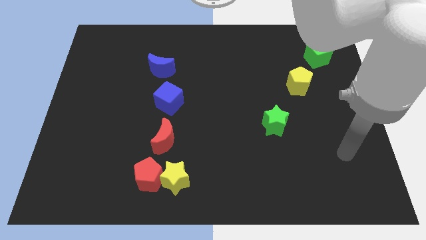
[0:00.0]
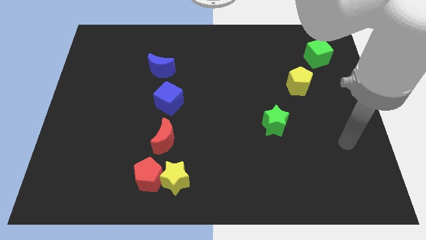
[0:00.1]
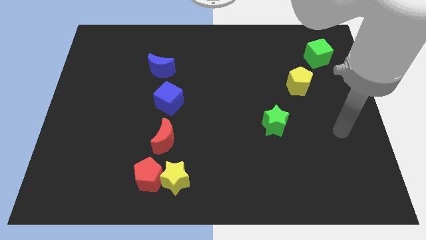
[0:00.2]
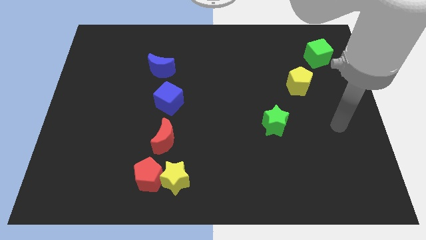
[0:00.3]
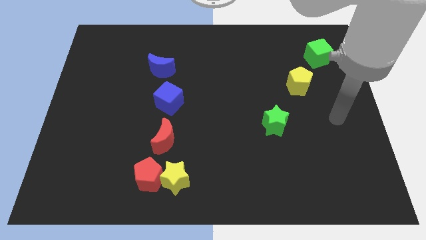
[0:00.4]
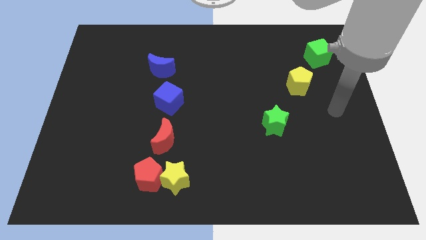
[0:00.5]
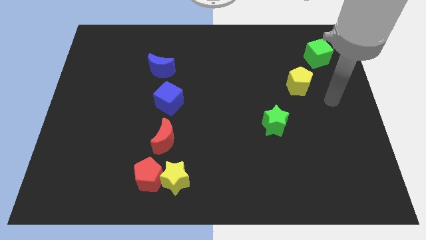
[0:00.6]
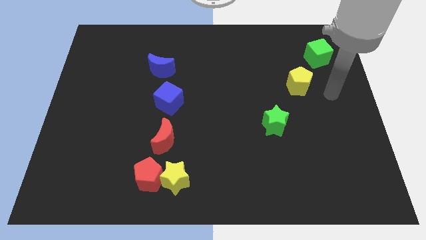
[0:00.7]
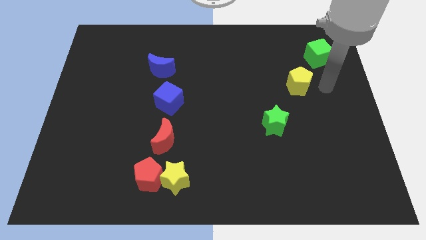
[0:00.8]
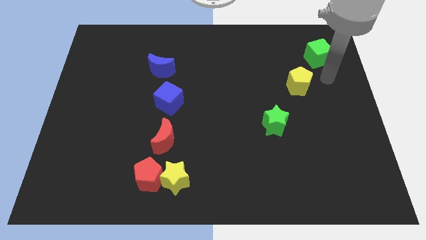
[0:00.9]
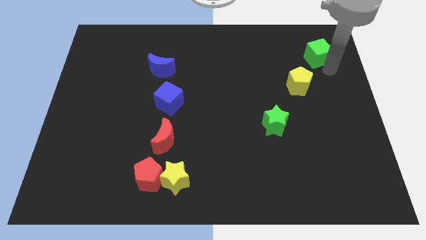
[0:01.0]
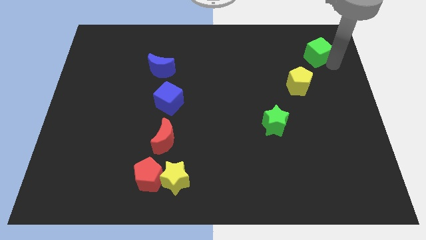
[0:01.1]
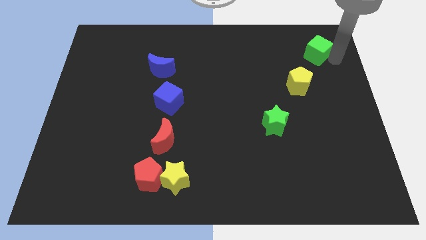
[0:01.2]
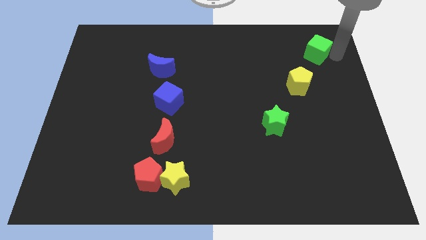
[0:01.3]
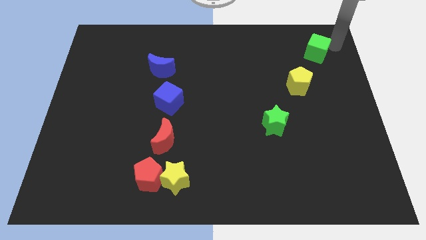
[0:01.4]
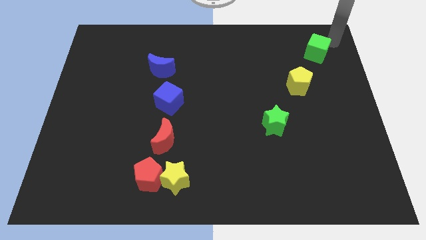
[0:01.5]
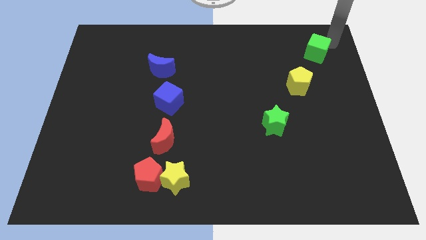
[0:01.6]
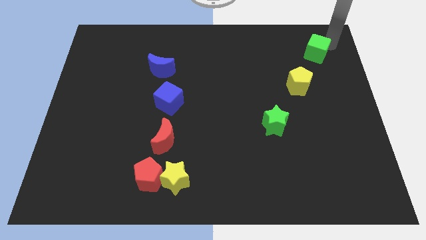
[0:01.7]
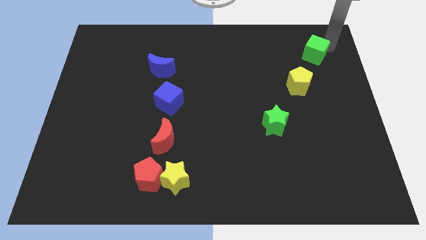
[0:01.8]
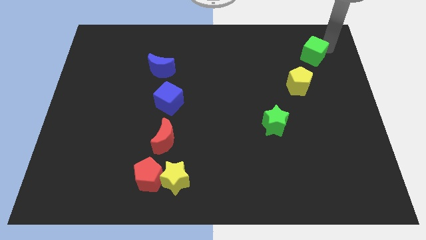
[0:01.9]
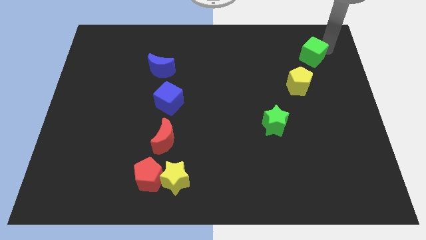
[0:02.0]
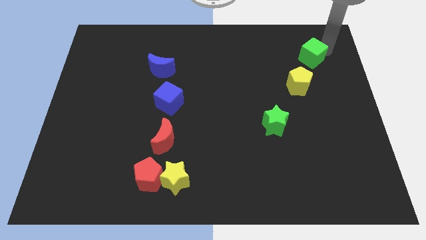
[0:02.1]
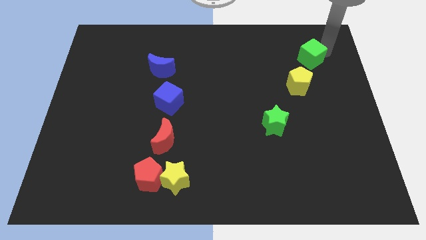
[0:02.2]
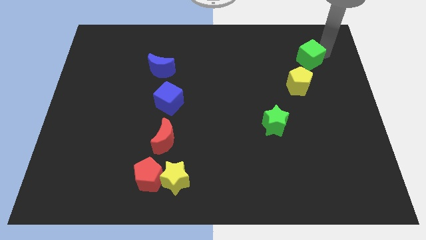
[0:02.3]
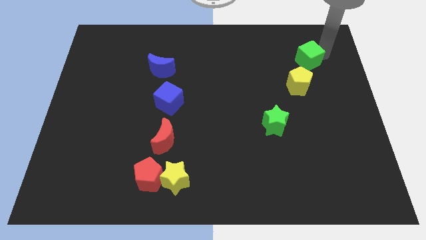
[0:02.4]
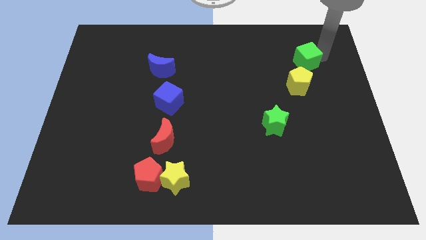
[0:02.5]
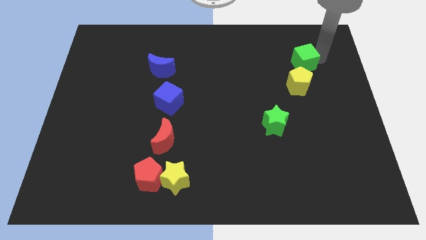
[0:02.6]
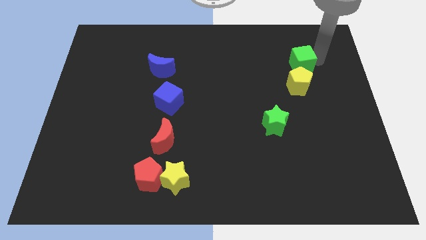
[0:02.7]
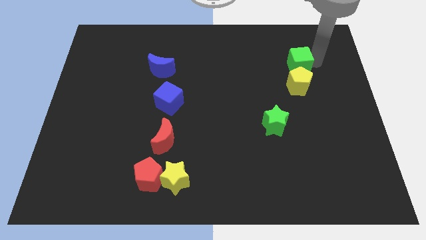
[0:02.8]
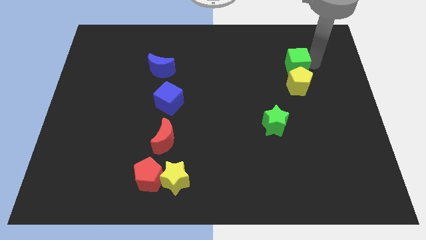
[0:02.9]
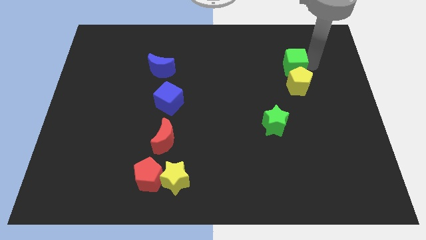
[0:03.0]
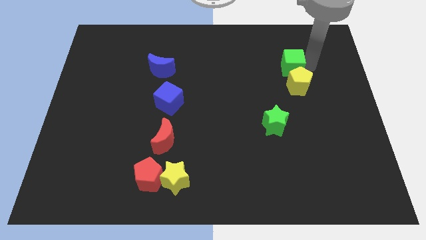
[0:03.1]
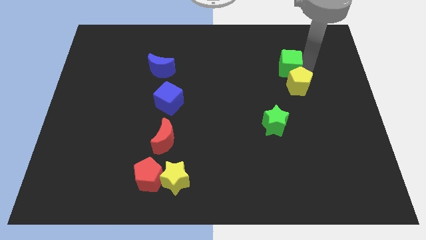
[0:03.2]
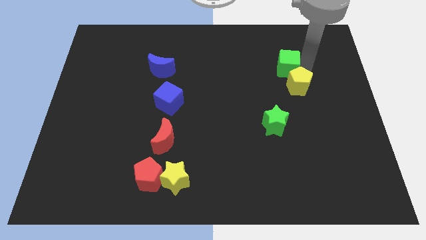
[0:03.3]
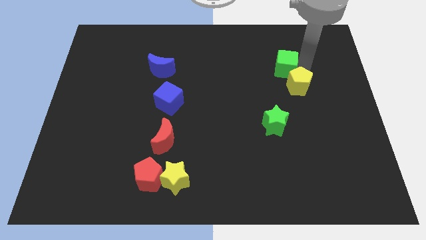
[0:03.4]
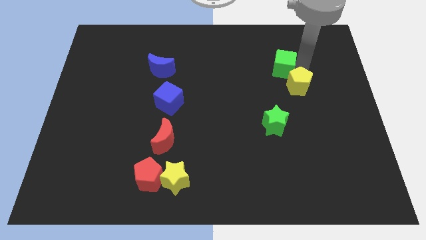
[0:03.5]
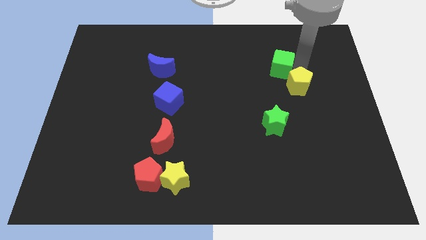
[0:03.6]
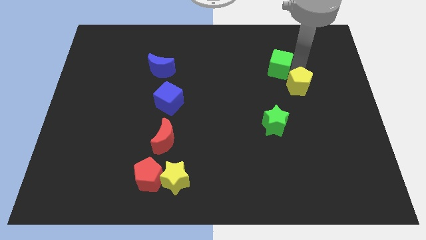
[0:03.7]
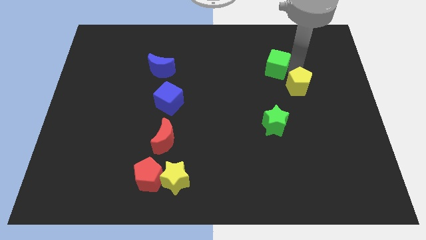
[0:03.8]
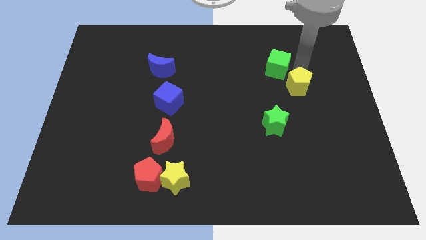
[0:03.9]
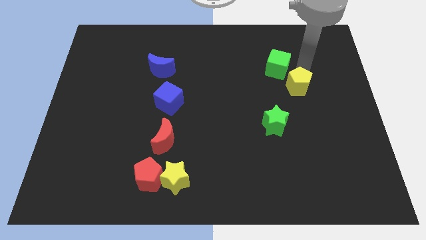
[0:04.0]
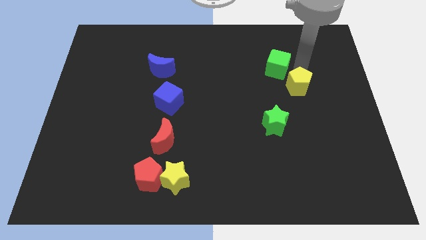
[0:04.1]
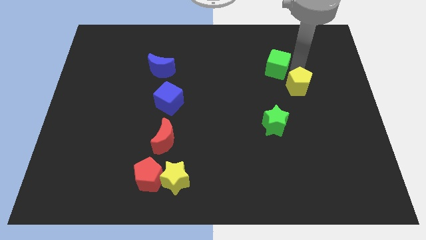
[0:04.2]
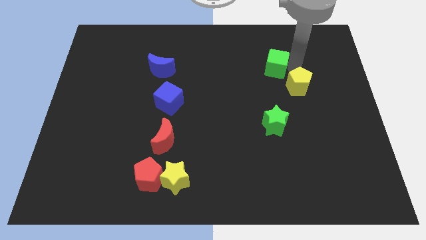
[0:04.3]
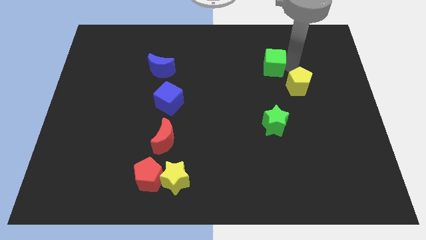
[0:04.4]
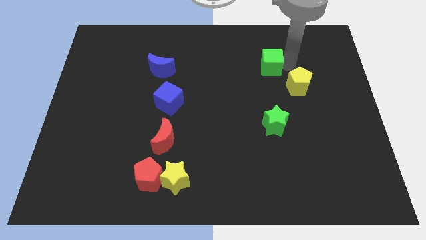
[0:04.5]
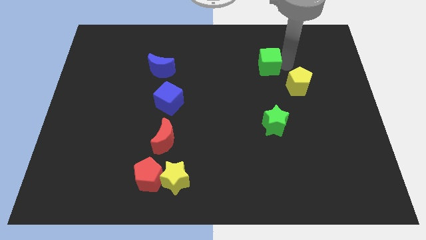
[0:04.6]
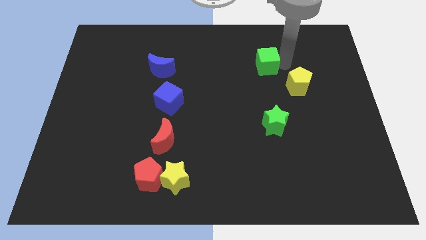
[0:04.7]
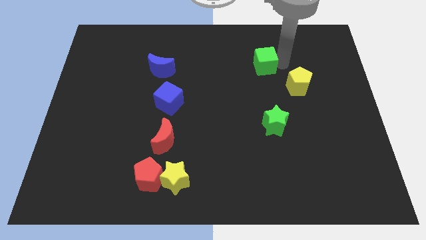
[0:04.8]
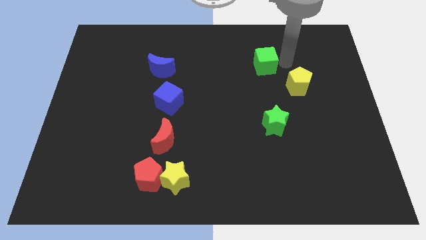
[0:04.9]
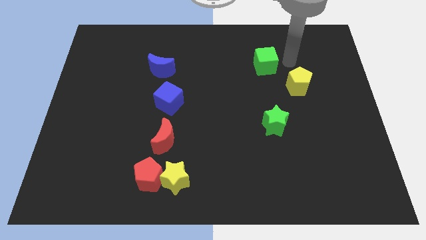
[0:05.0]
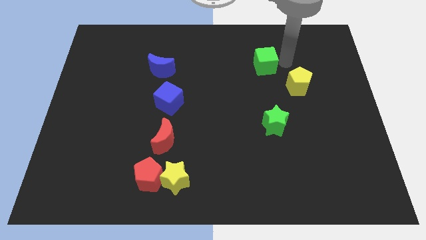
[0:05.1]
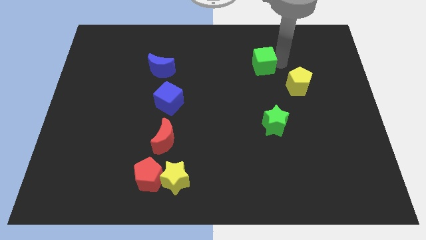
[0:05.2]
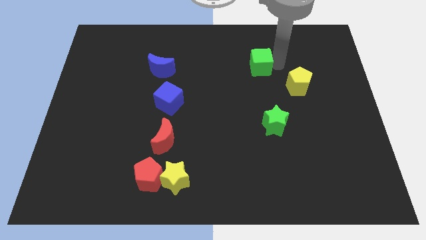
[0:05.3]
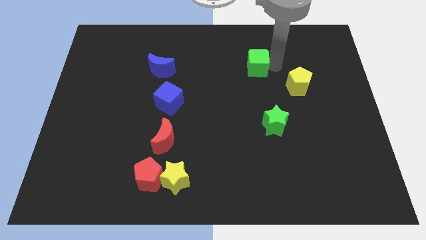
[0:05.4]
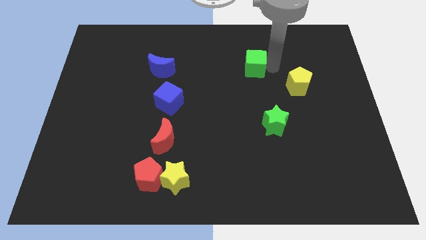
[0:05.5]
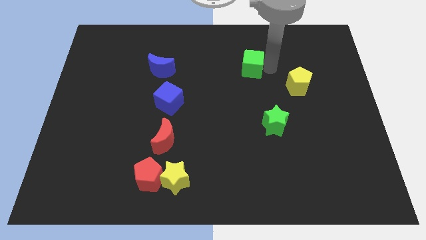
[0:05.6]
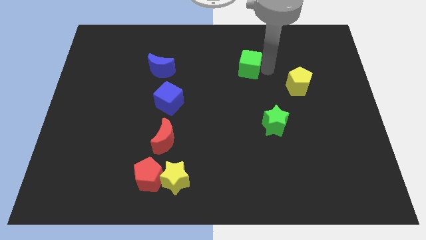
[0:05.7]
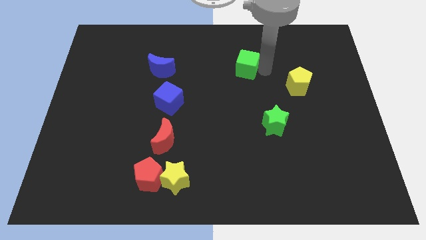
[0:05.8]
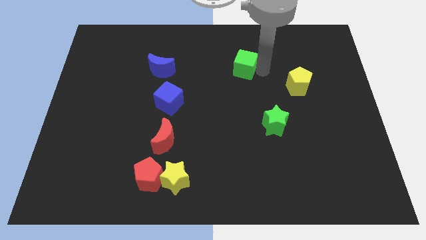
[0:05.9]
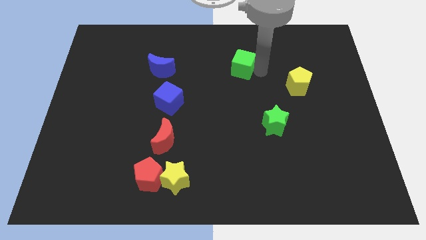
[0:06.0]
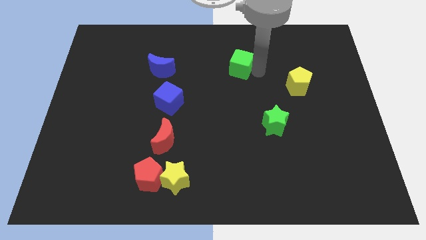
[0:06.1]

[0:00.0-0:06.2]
push the green cube left

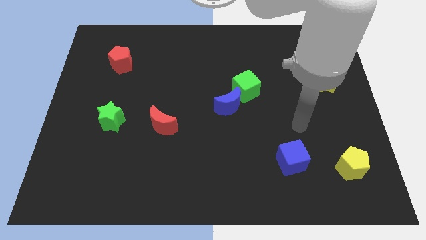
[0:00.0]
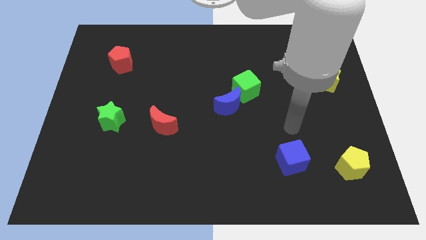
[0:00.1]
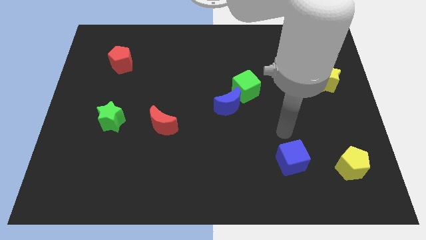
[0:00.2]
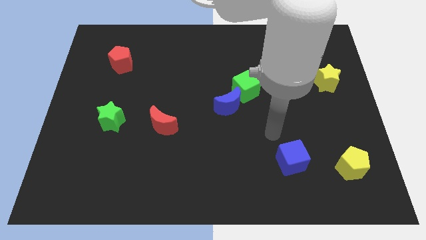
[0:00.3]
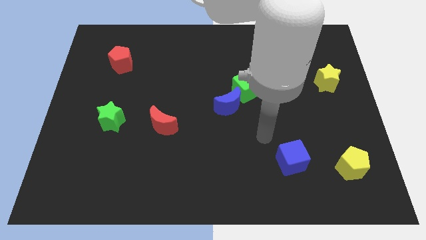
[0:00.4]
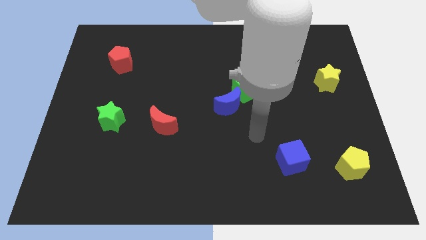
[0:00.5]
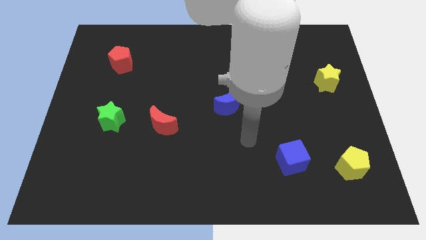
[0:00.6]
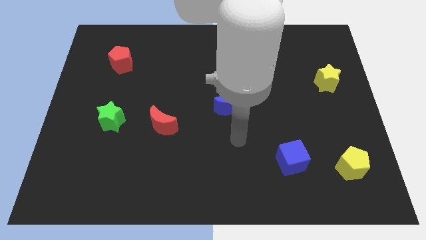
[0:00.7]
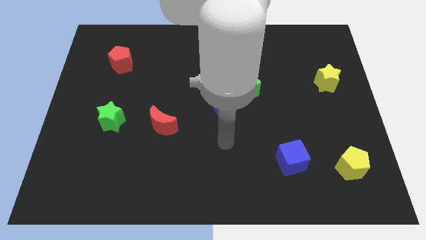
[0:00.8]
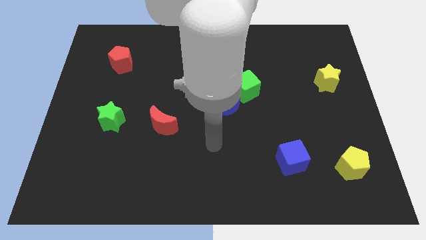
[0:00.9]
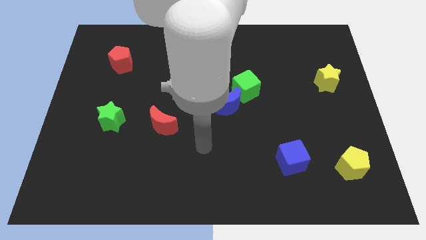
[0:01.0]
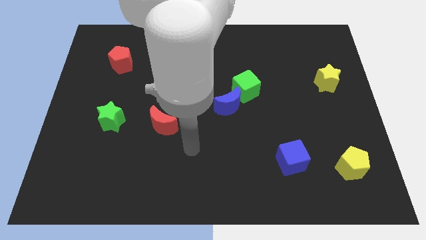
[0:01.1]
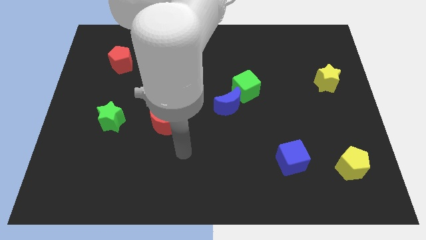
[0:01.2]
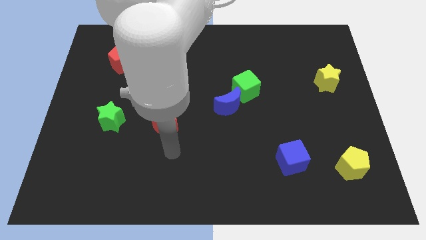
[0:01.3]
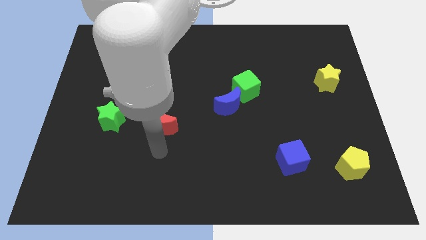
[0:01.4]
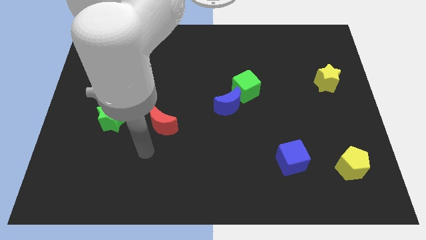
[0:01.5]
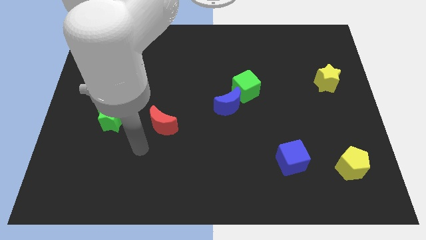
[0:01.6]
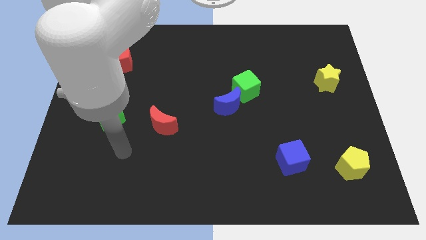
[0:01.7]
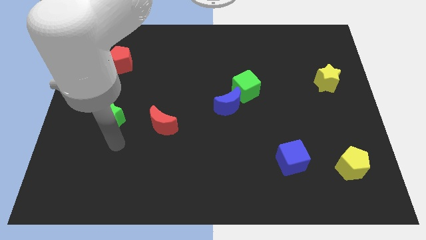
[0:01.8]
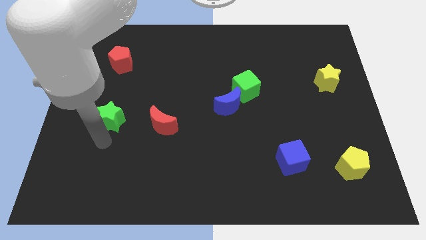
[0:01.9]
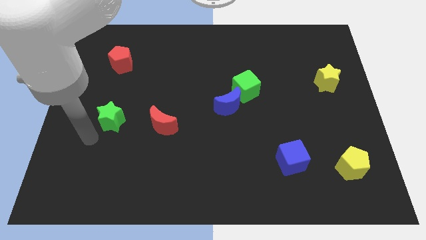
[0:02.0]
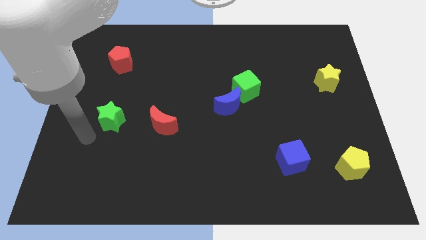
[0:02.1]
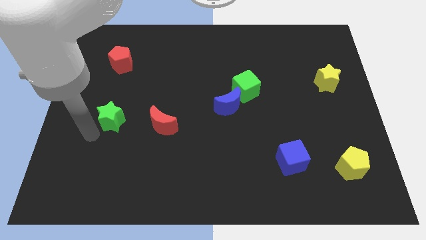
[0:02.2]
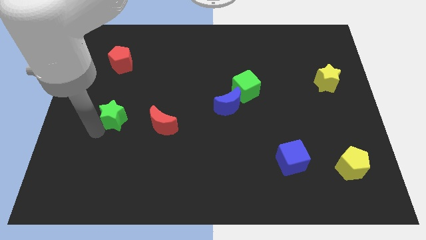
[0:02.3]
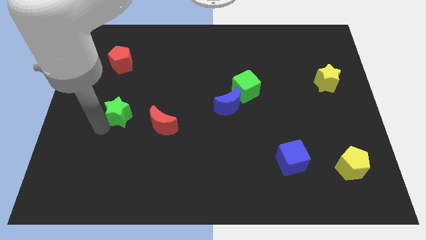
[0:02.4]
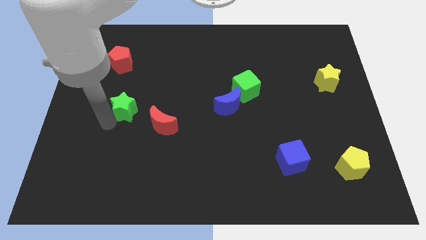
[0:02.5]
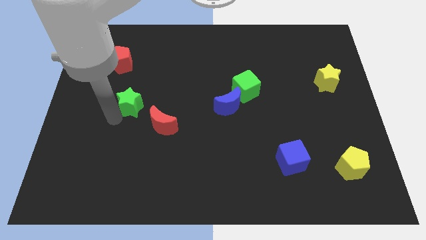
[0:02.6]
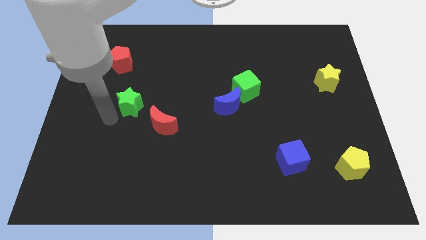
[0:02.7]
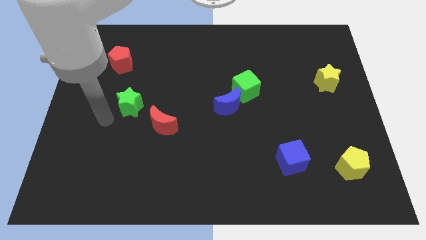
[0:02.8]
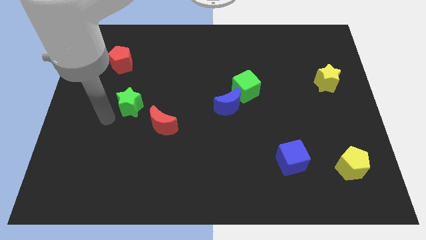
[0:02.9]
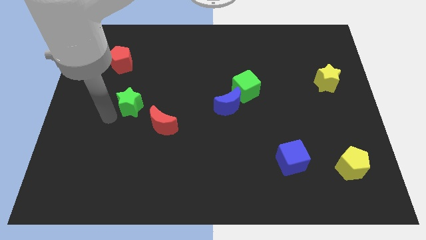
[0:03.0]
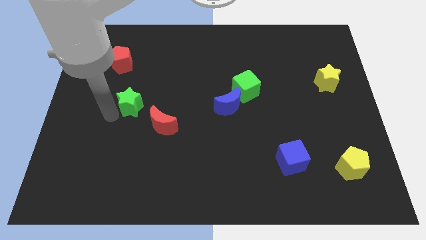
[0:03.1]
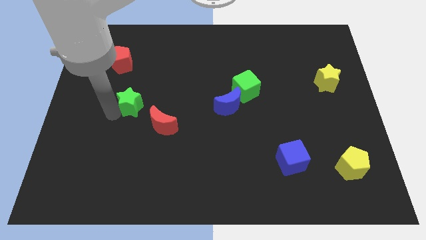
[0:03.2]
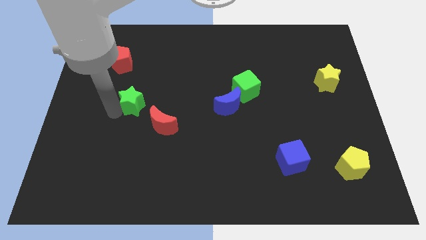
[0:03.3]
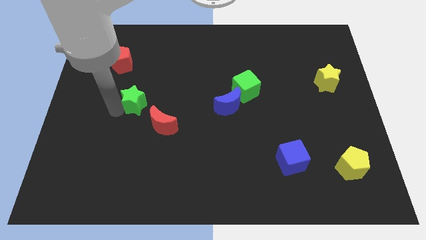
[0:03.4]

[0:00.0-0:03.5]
slide the green star a little bit upwards and to the right
